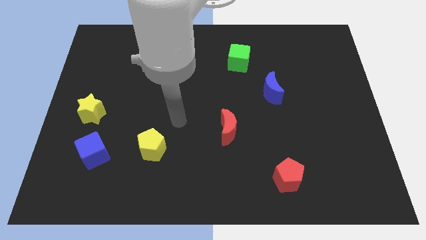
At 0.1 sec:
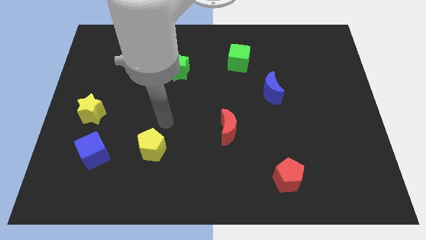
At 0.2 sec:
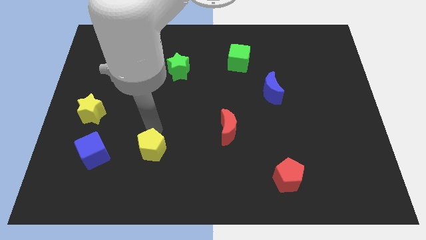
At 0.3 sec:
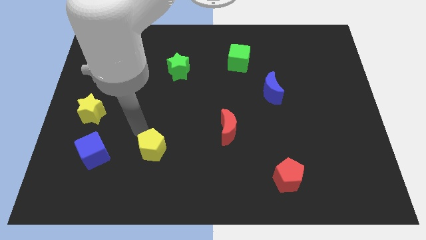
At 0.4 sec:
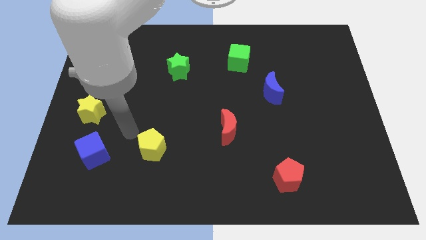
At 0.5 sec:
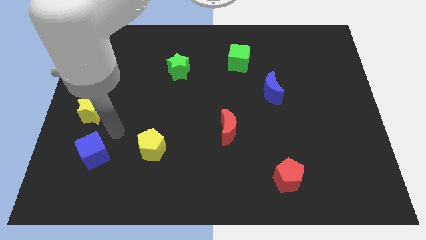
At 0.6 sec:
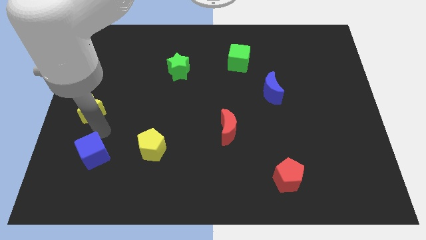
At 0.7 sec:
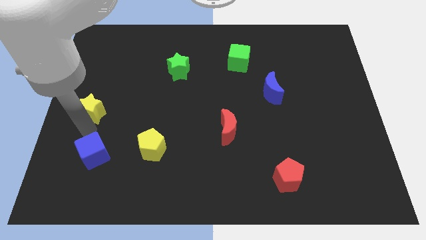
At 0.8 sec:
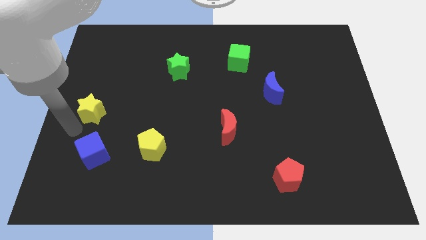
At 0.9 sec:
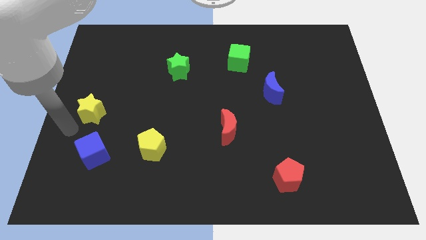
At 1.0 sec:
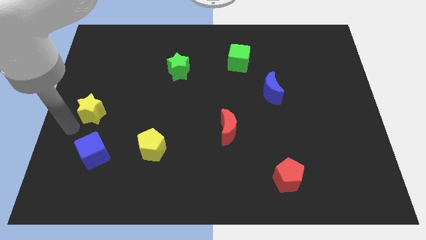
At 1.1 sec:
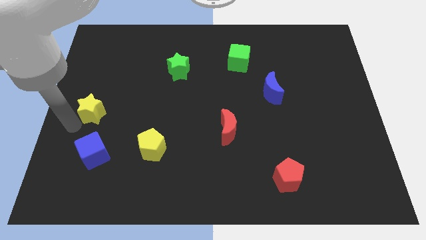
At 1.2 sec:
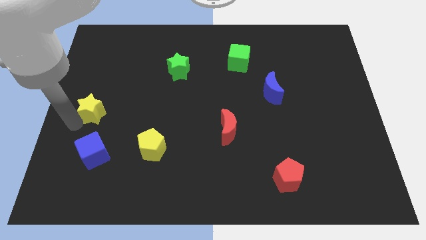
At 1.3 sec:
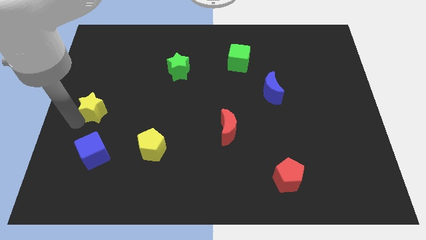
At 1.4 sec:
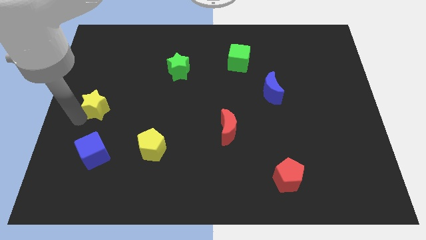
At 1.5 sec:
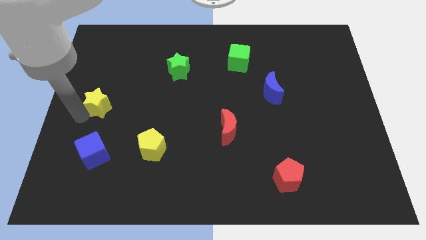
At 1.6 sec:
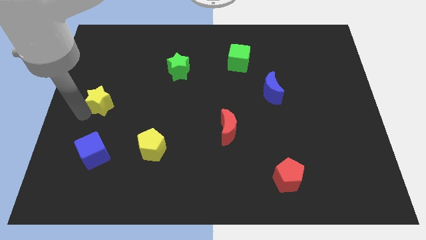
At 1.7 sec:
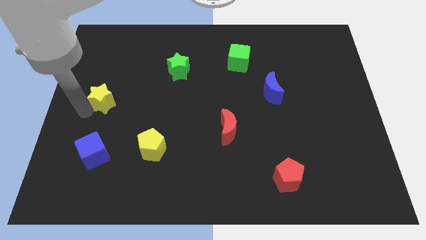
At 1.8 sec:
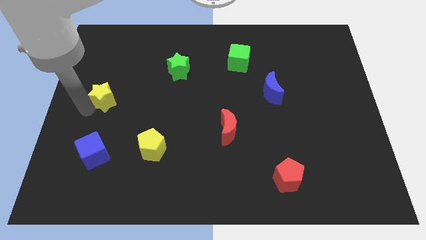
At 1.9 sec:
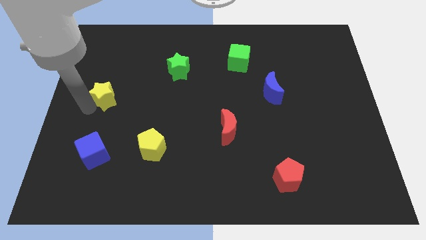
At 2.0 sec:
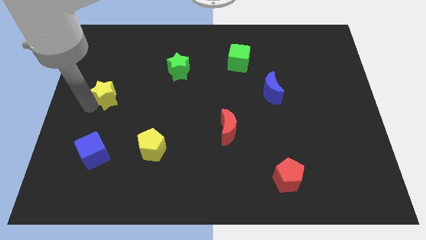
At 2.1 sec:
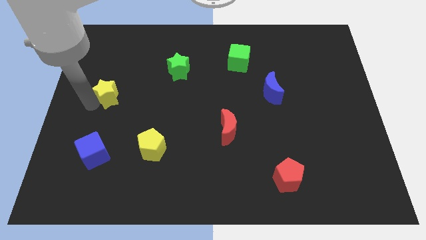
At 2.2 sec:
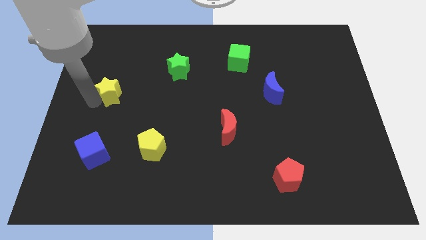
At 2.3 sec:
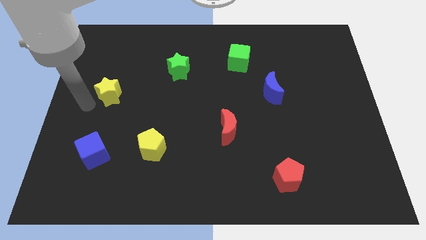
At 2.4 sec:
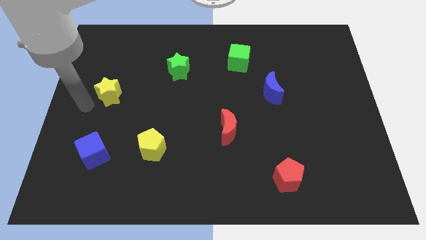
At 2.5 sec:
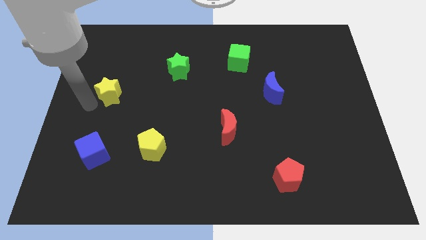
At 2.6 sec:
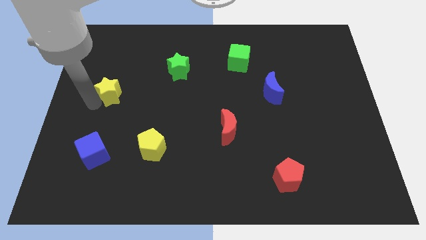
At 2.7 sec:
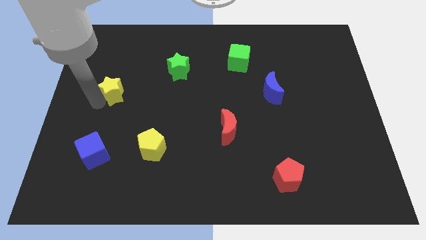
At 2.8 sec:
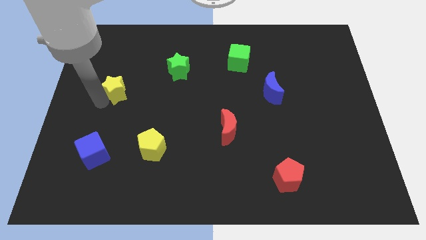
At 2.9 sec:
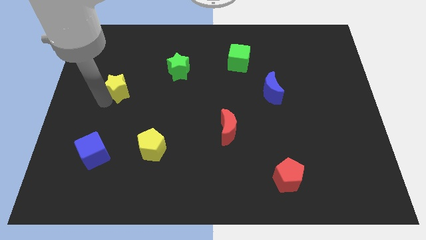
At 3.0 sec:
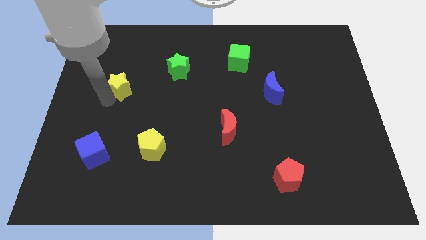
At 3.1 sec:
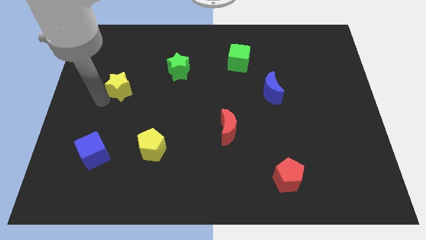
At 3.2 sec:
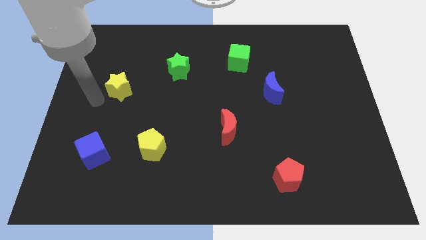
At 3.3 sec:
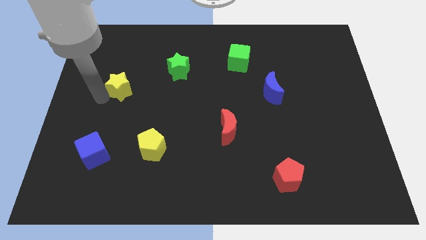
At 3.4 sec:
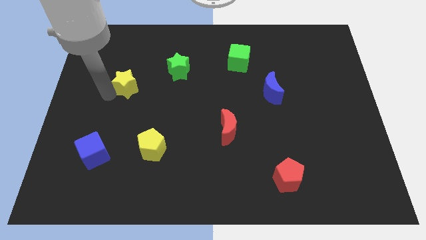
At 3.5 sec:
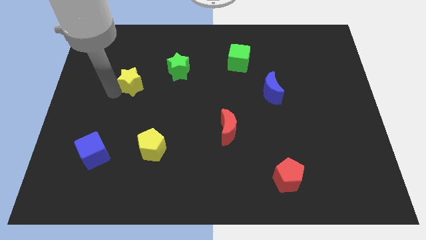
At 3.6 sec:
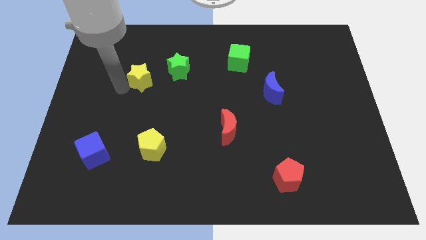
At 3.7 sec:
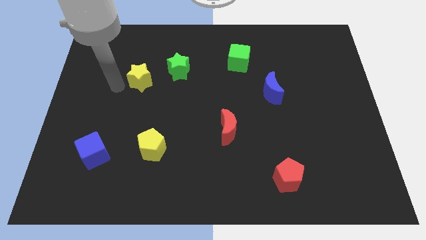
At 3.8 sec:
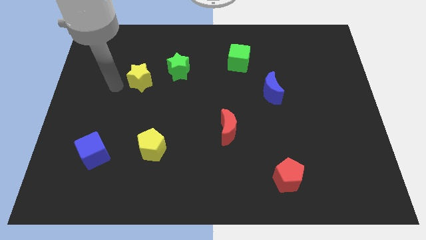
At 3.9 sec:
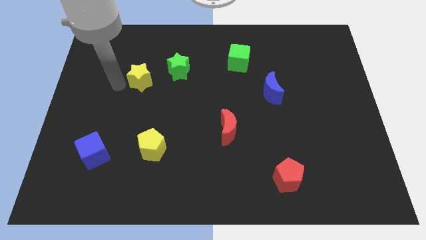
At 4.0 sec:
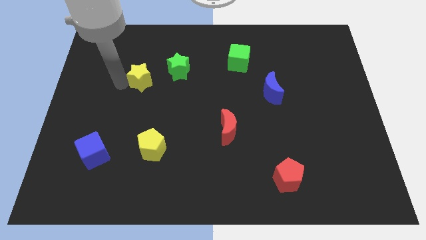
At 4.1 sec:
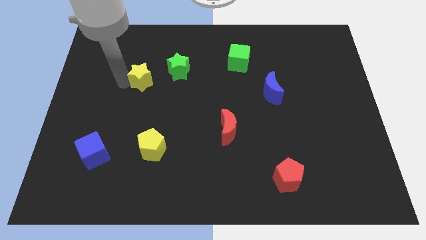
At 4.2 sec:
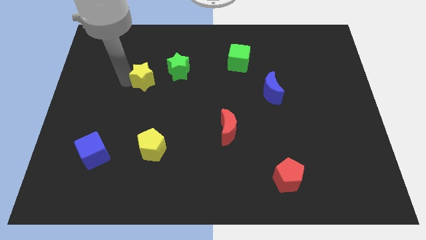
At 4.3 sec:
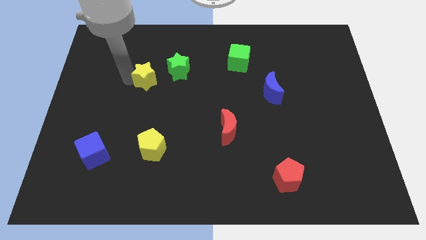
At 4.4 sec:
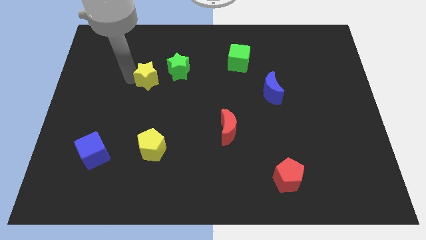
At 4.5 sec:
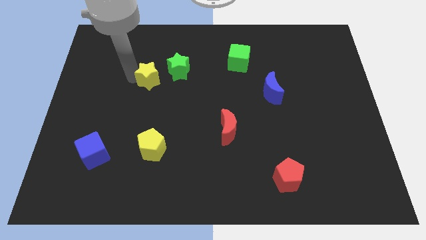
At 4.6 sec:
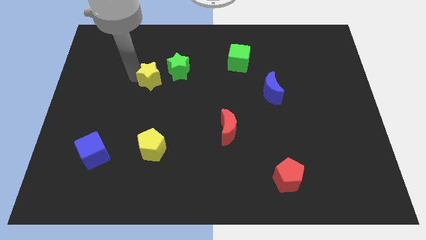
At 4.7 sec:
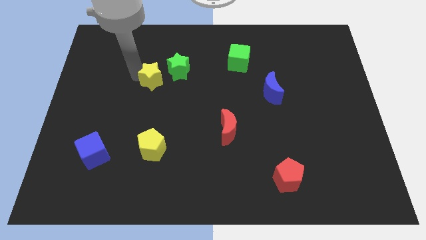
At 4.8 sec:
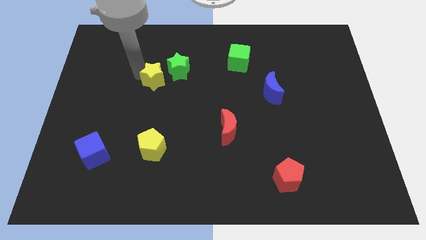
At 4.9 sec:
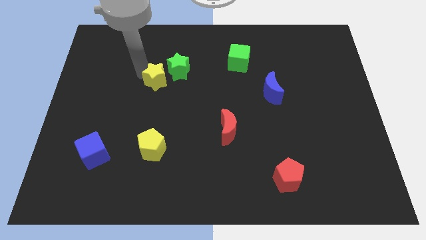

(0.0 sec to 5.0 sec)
push the yellow star to the green star

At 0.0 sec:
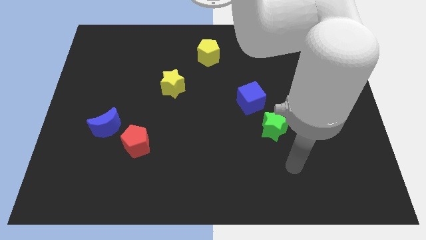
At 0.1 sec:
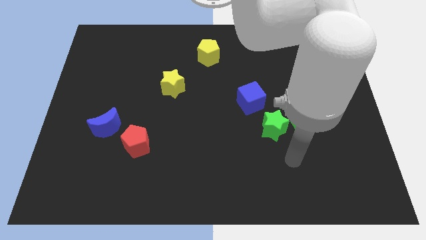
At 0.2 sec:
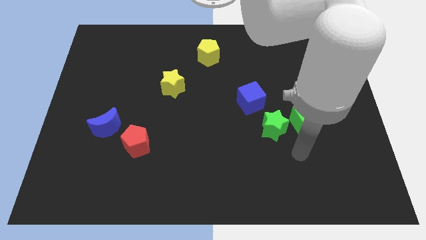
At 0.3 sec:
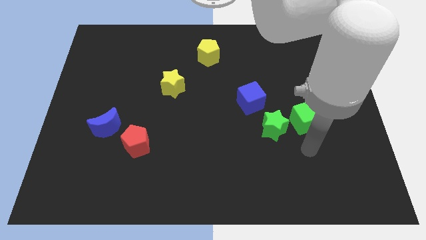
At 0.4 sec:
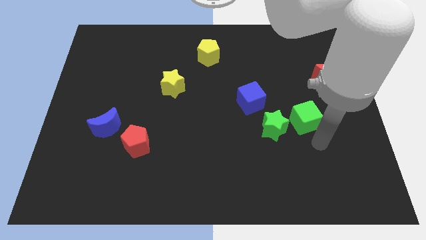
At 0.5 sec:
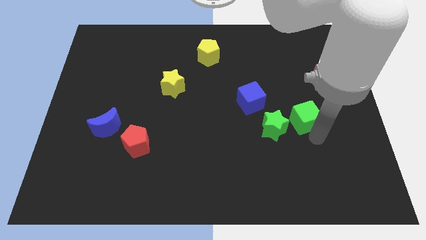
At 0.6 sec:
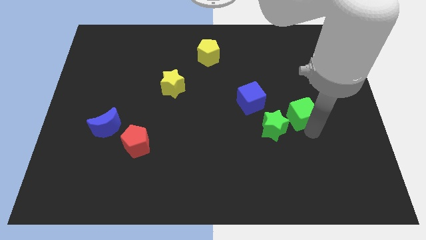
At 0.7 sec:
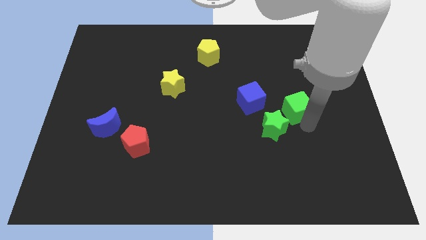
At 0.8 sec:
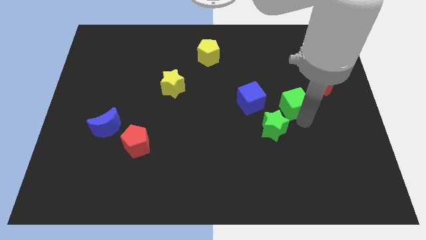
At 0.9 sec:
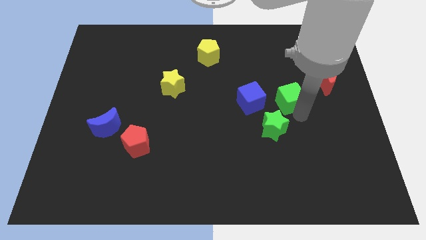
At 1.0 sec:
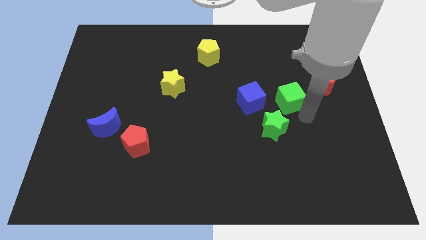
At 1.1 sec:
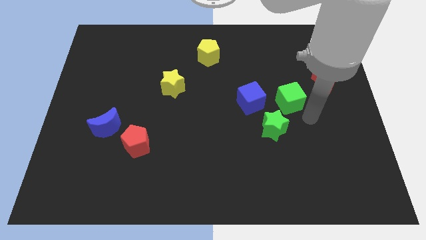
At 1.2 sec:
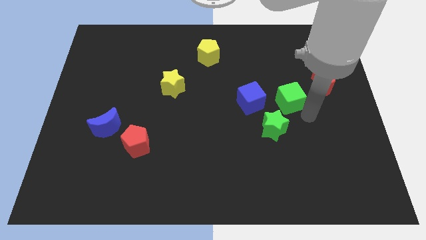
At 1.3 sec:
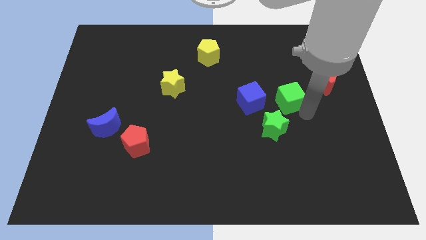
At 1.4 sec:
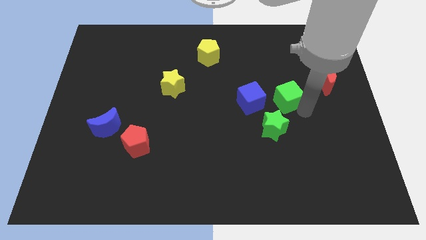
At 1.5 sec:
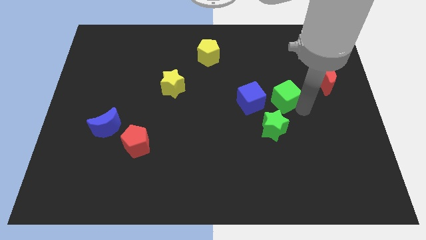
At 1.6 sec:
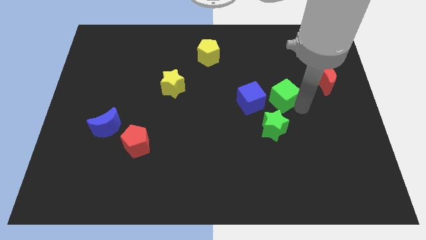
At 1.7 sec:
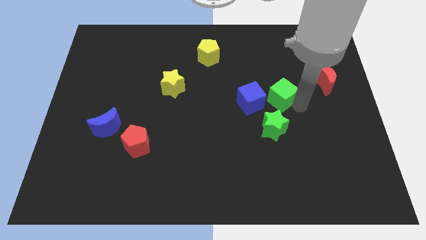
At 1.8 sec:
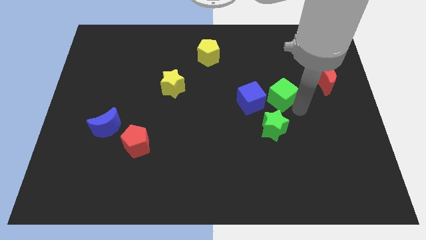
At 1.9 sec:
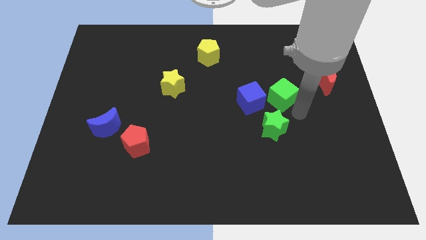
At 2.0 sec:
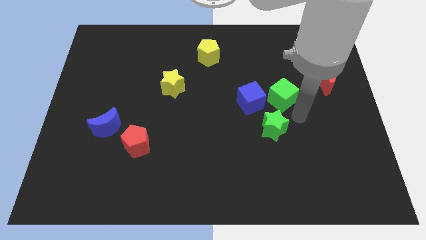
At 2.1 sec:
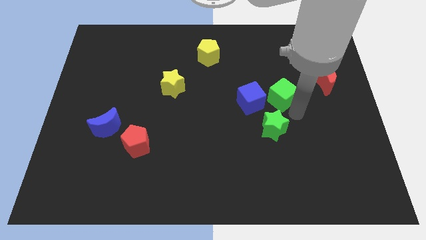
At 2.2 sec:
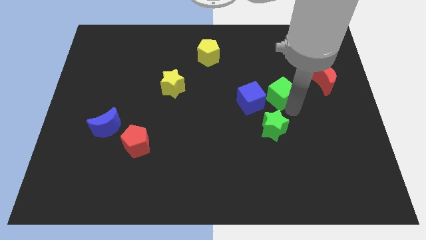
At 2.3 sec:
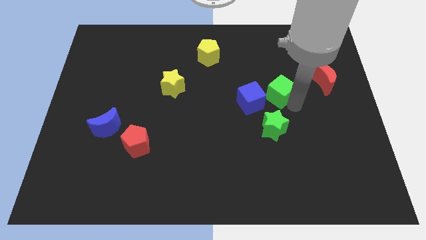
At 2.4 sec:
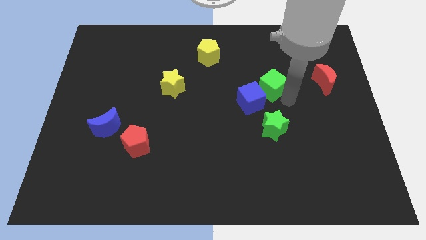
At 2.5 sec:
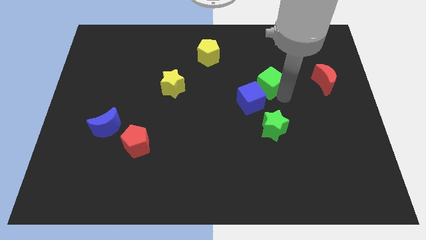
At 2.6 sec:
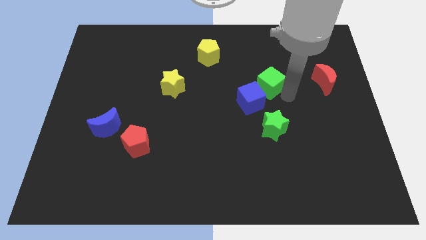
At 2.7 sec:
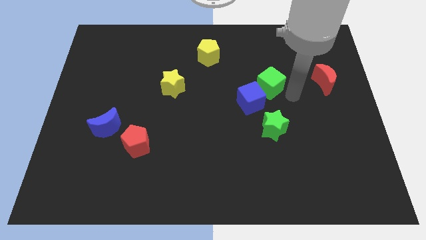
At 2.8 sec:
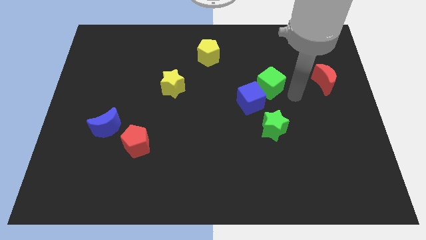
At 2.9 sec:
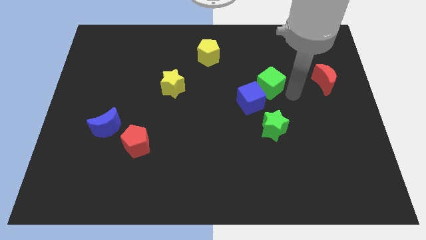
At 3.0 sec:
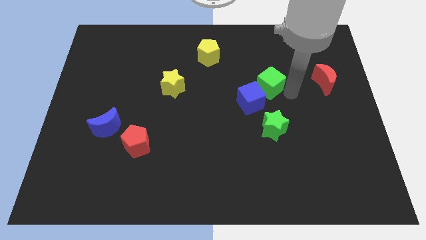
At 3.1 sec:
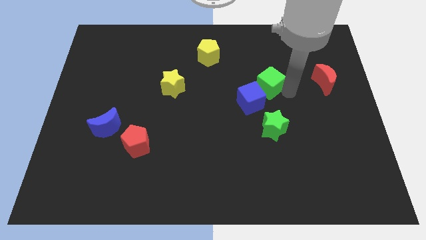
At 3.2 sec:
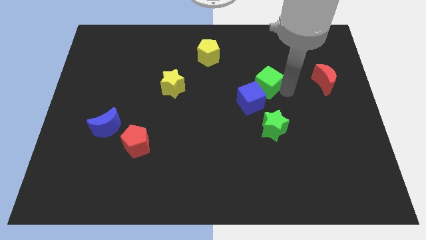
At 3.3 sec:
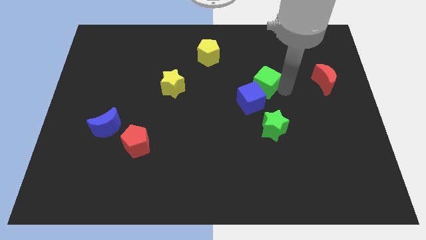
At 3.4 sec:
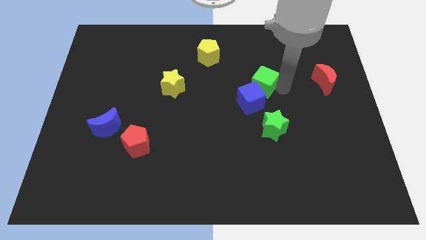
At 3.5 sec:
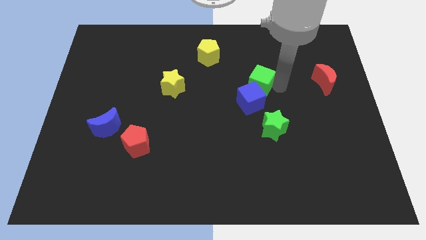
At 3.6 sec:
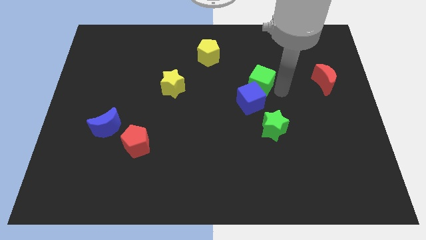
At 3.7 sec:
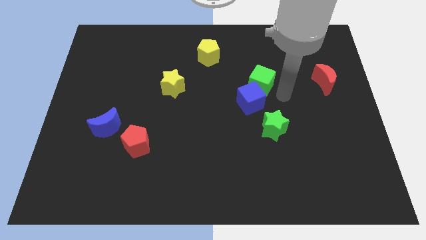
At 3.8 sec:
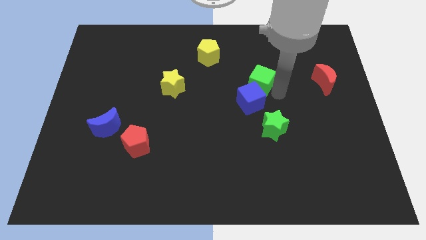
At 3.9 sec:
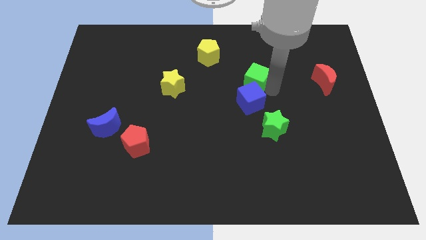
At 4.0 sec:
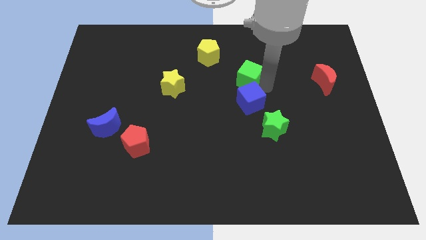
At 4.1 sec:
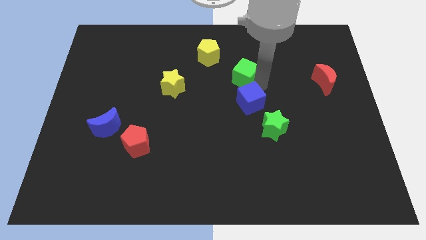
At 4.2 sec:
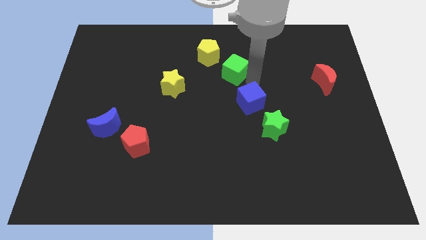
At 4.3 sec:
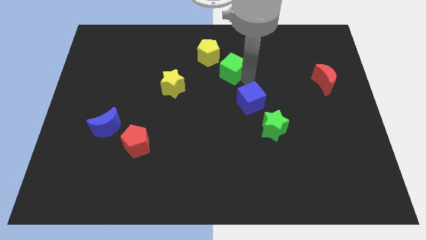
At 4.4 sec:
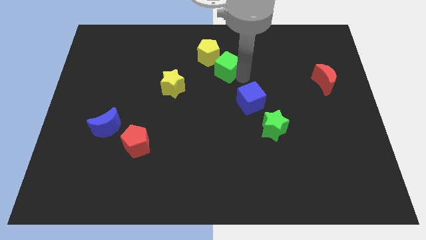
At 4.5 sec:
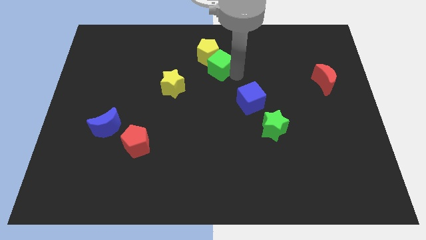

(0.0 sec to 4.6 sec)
slide the green cube next to the yellow pentagon
